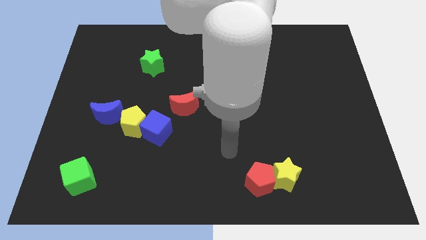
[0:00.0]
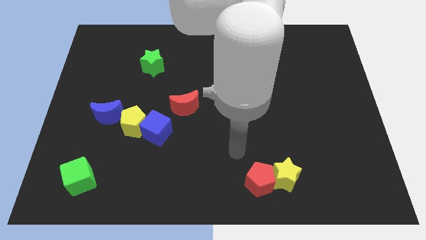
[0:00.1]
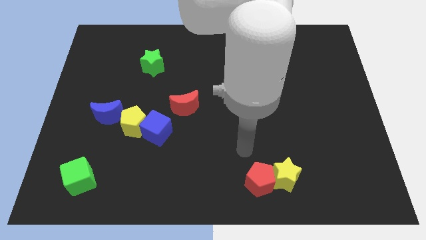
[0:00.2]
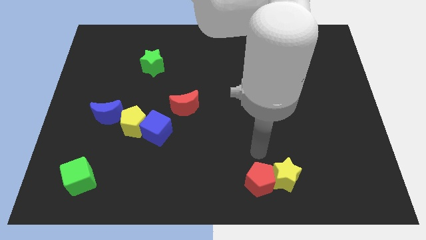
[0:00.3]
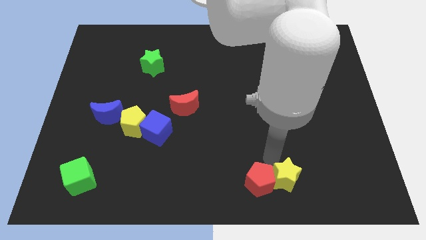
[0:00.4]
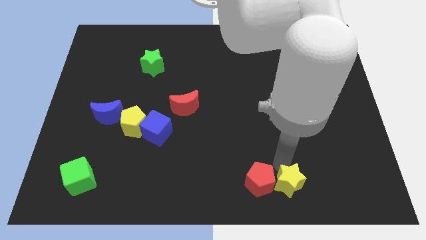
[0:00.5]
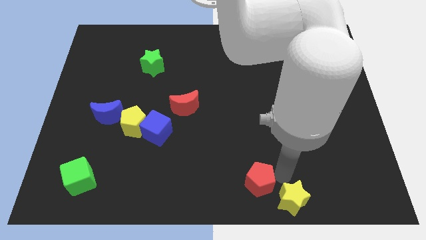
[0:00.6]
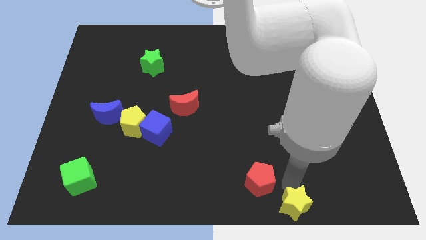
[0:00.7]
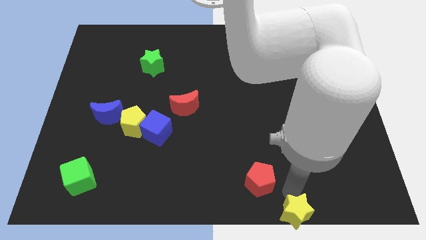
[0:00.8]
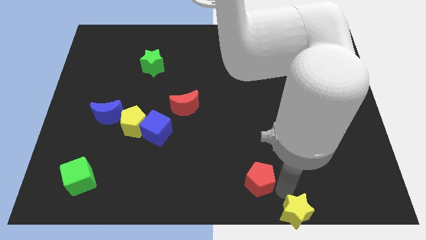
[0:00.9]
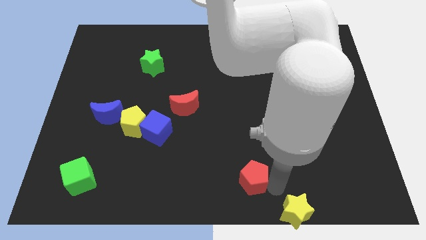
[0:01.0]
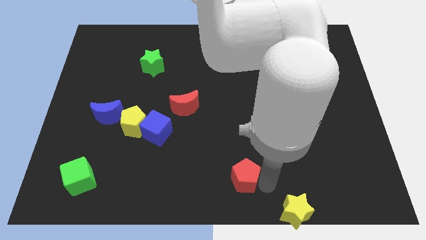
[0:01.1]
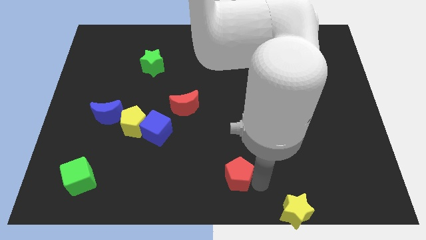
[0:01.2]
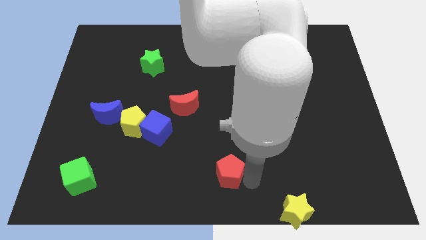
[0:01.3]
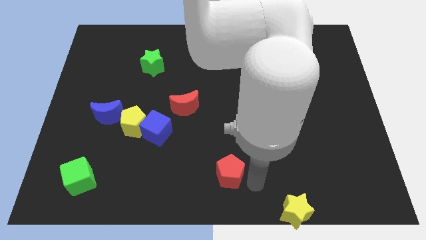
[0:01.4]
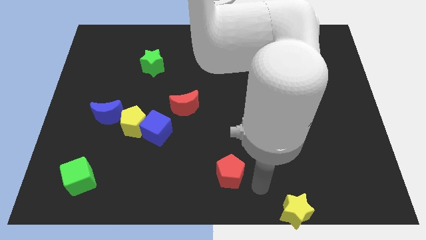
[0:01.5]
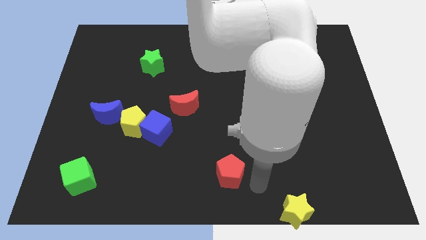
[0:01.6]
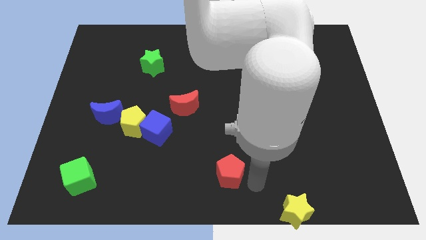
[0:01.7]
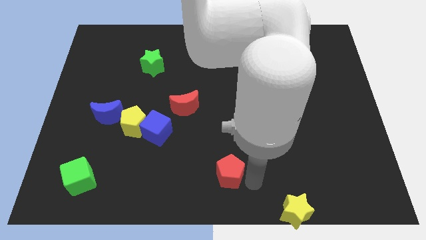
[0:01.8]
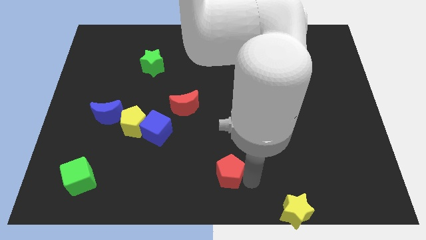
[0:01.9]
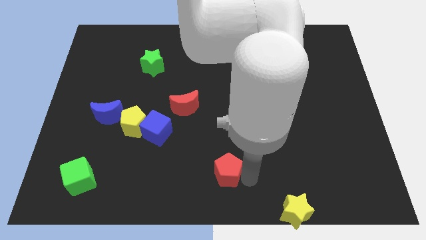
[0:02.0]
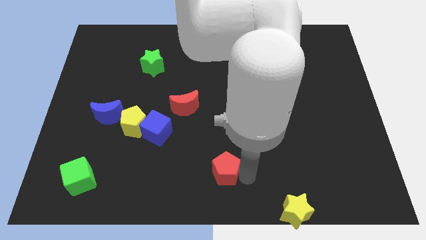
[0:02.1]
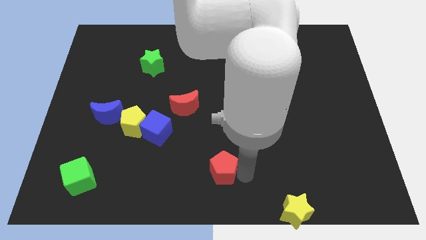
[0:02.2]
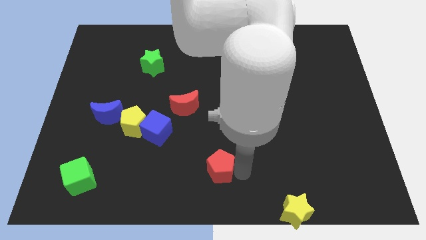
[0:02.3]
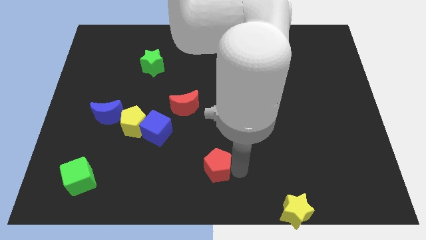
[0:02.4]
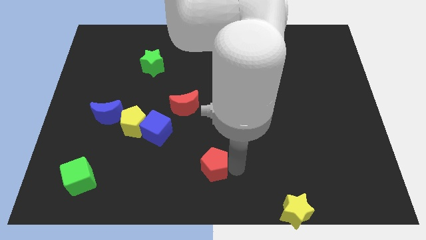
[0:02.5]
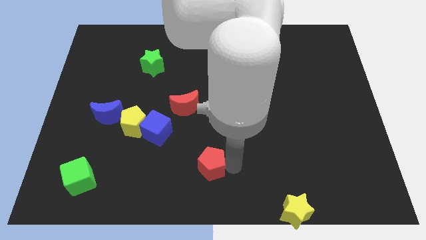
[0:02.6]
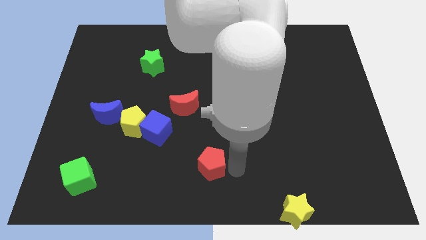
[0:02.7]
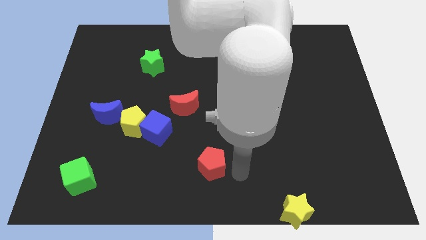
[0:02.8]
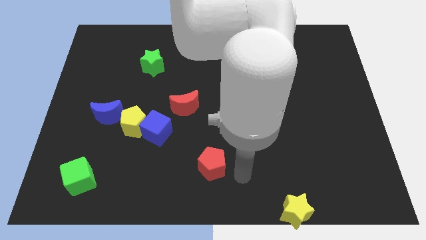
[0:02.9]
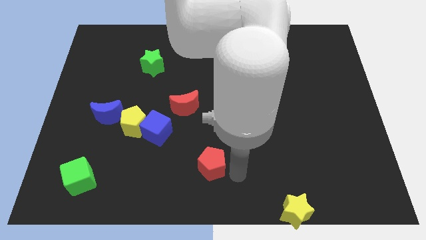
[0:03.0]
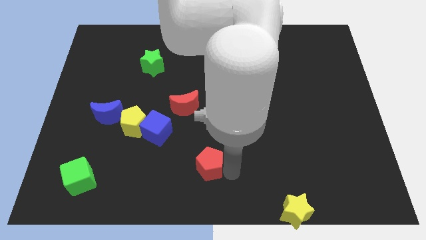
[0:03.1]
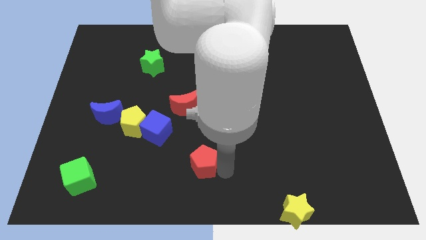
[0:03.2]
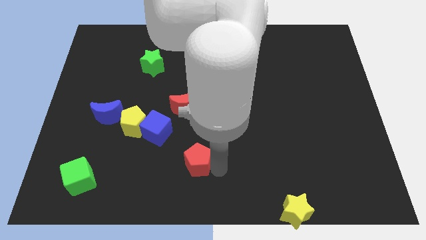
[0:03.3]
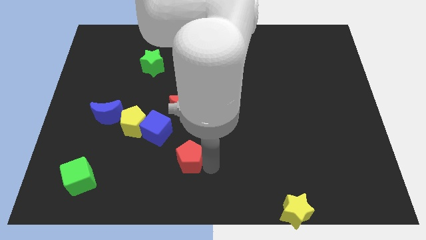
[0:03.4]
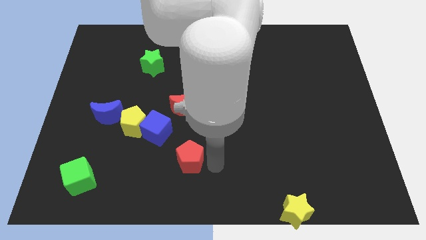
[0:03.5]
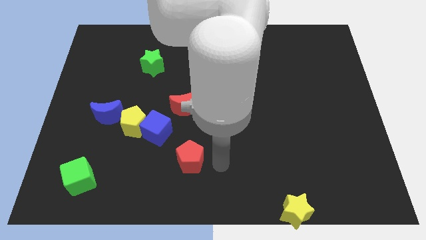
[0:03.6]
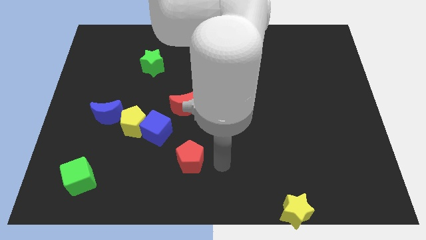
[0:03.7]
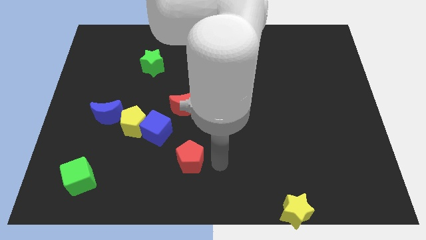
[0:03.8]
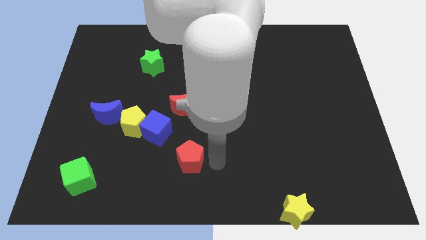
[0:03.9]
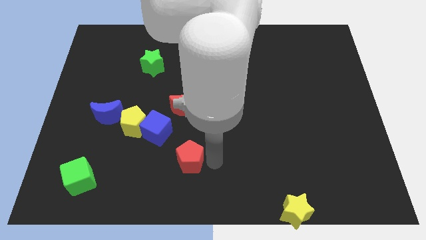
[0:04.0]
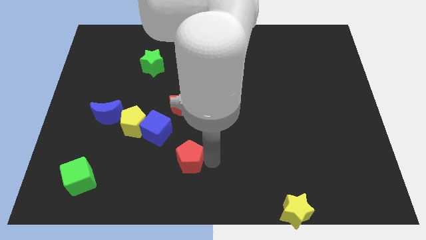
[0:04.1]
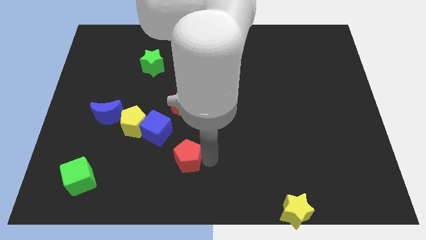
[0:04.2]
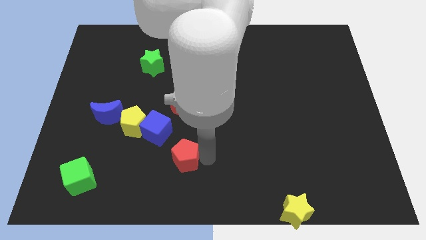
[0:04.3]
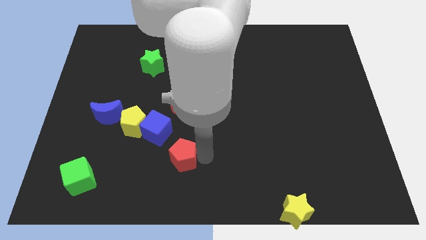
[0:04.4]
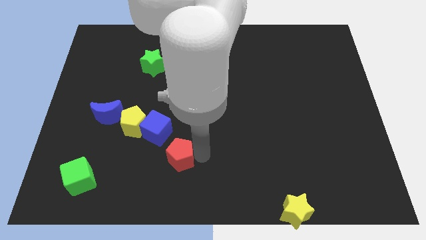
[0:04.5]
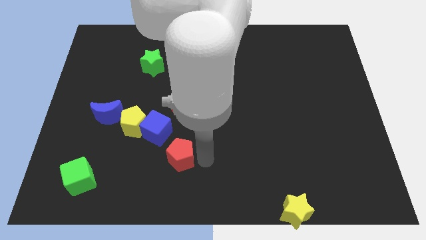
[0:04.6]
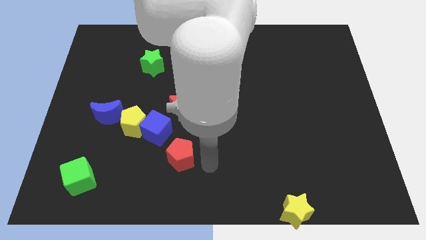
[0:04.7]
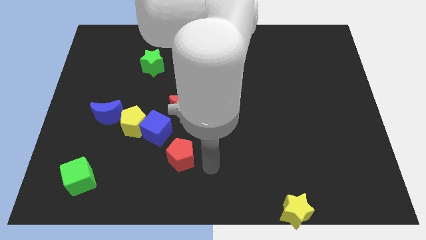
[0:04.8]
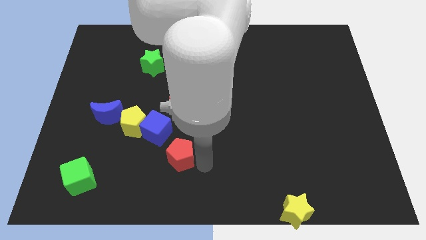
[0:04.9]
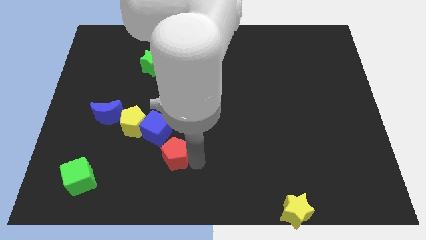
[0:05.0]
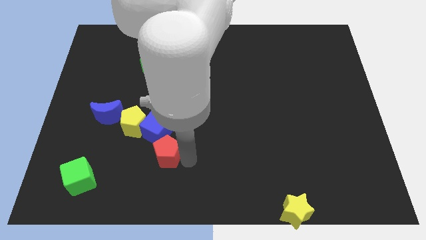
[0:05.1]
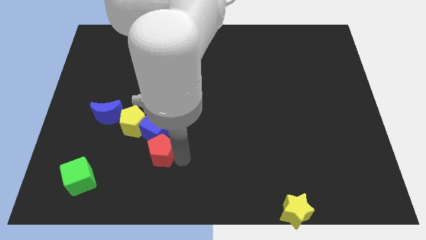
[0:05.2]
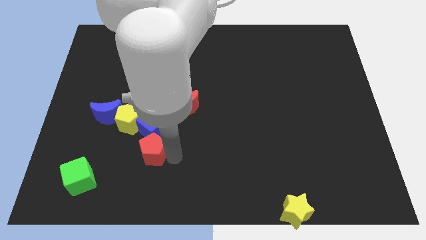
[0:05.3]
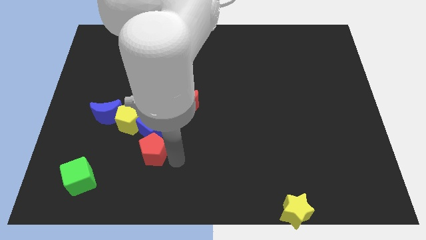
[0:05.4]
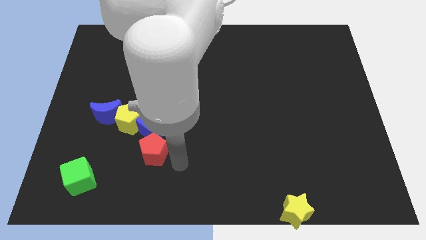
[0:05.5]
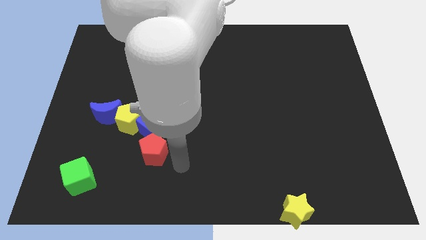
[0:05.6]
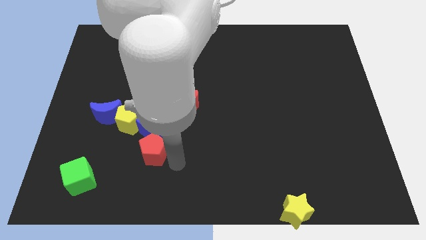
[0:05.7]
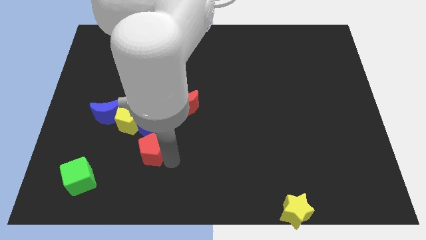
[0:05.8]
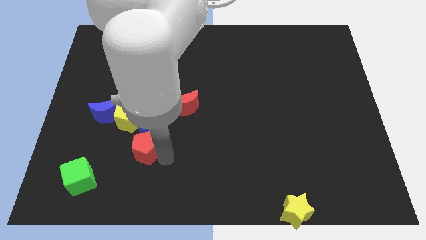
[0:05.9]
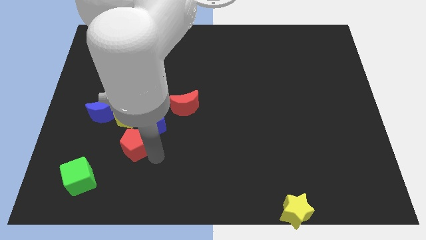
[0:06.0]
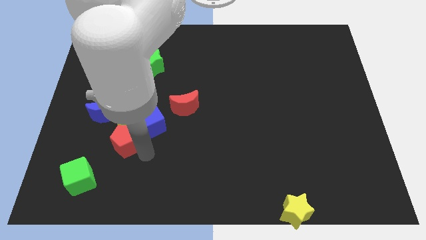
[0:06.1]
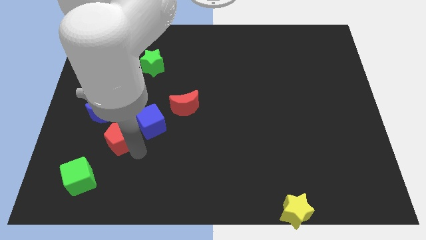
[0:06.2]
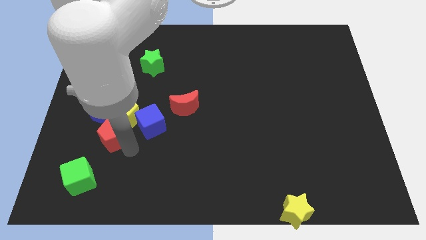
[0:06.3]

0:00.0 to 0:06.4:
push the red pentagon towards the yellow pentagon

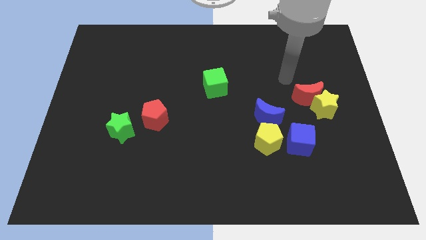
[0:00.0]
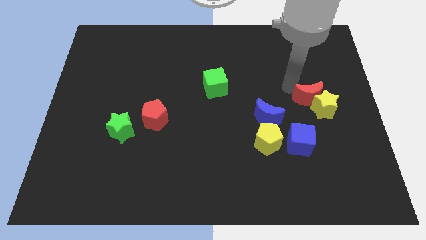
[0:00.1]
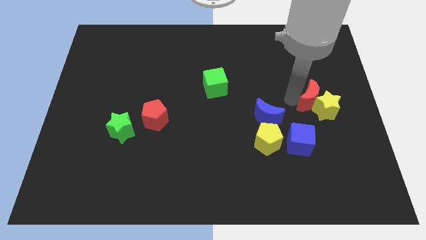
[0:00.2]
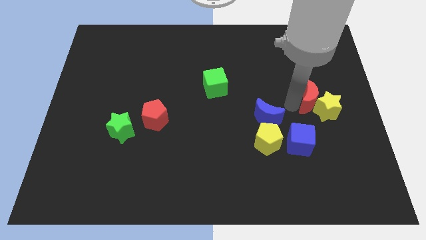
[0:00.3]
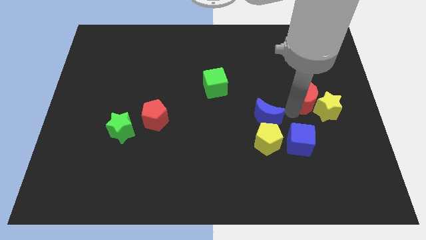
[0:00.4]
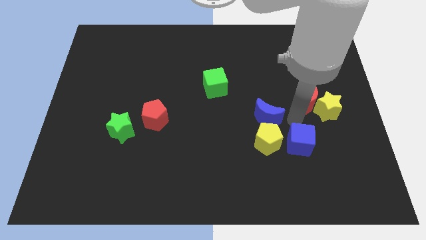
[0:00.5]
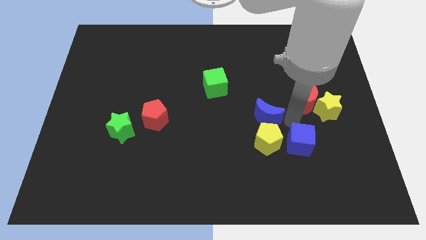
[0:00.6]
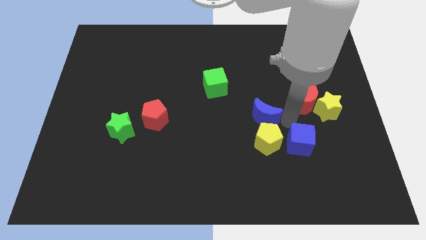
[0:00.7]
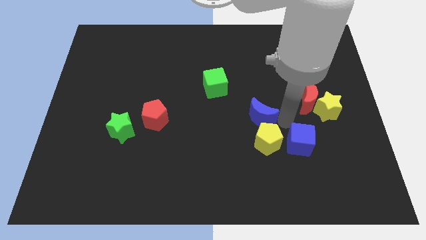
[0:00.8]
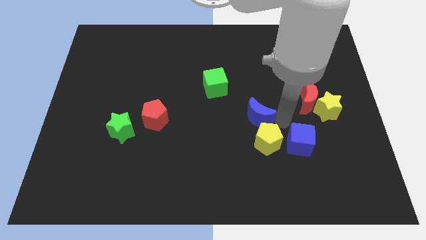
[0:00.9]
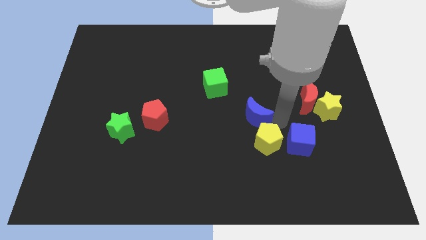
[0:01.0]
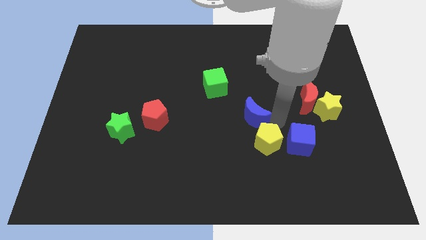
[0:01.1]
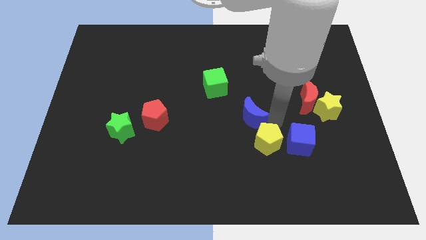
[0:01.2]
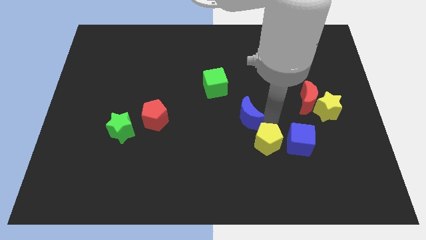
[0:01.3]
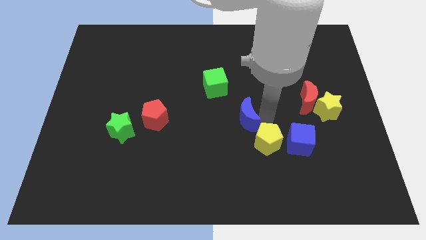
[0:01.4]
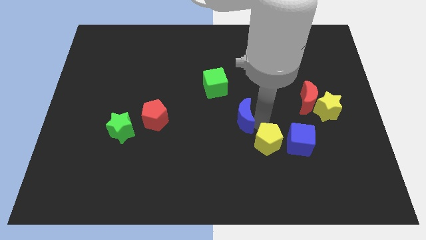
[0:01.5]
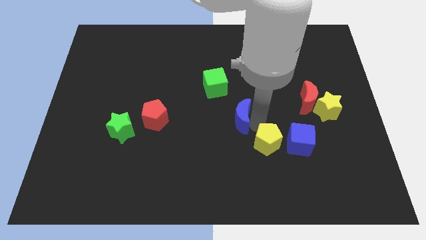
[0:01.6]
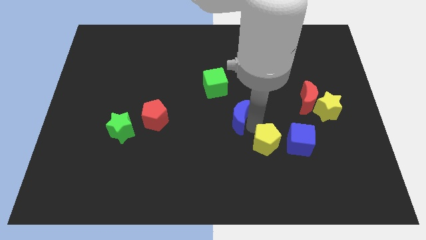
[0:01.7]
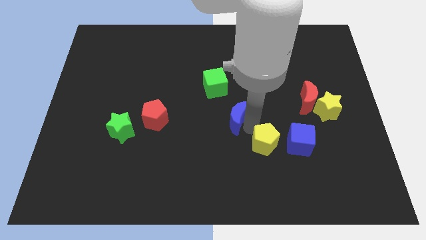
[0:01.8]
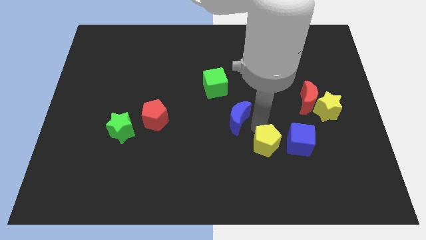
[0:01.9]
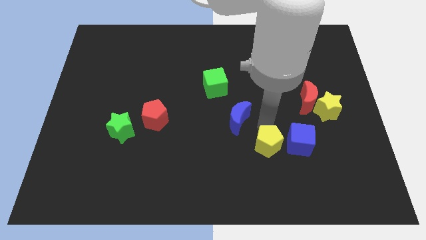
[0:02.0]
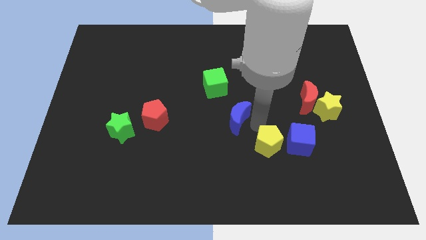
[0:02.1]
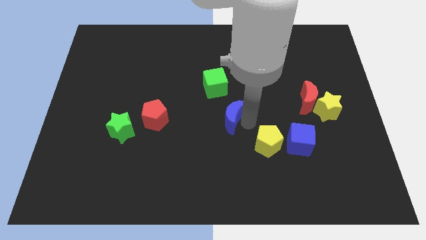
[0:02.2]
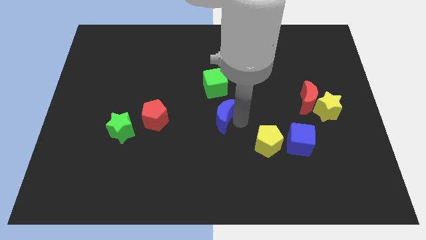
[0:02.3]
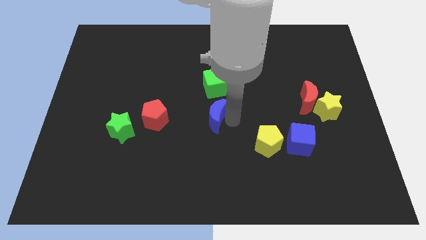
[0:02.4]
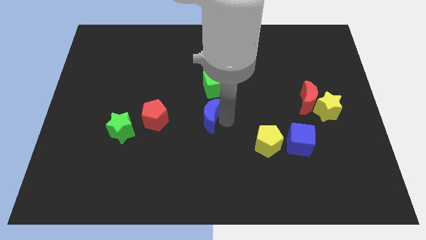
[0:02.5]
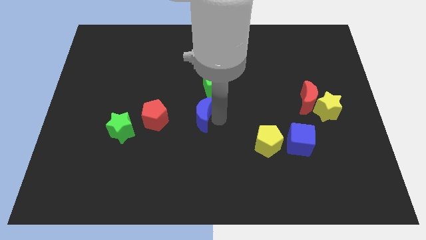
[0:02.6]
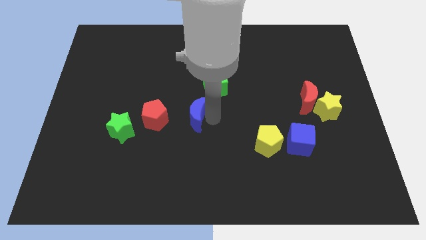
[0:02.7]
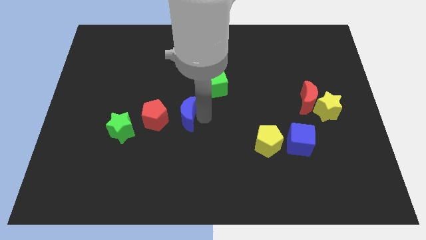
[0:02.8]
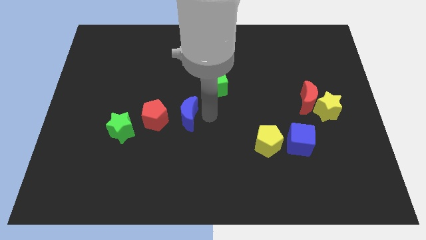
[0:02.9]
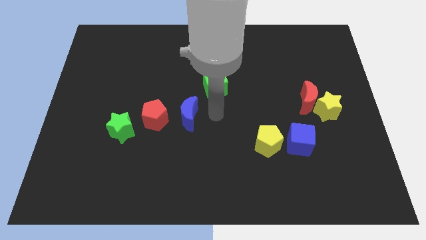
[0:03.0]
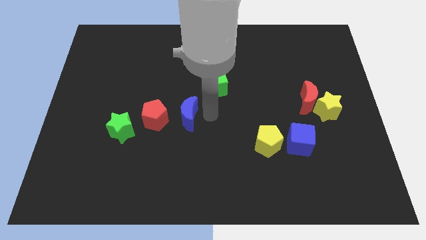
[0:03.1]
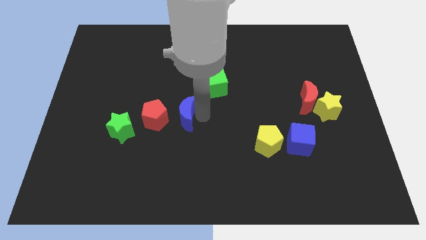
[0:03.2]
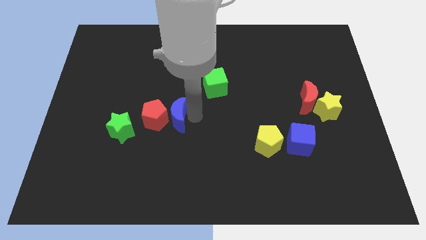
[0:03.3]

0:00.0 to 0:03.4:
slide the blue moon towards the red pentagon
